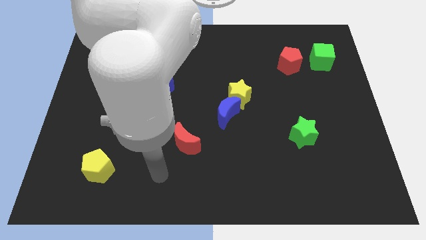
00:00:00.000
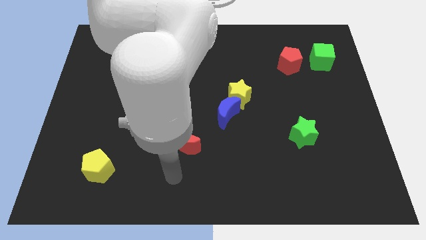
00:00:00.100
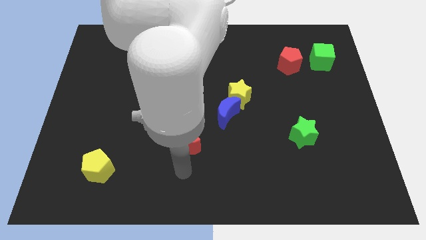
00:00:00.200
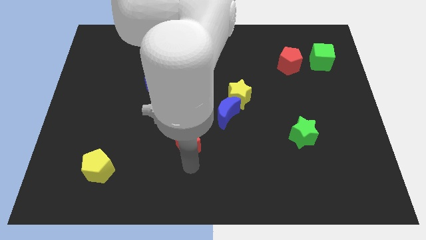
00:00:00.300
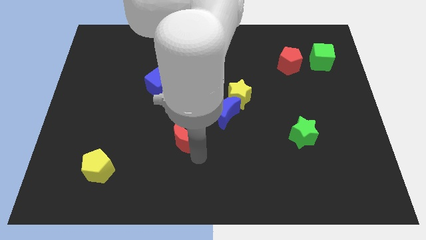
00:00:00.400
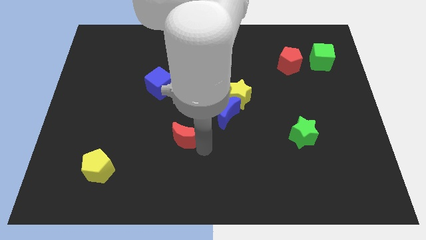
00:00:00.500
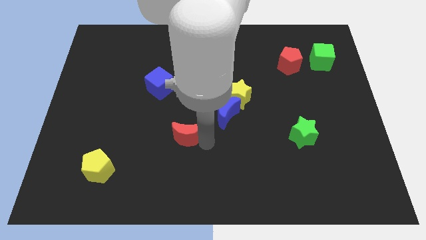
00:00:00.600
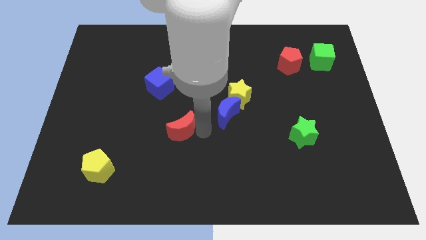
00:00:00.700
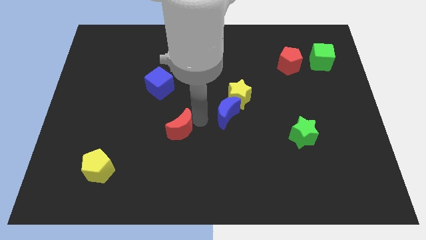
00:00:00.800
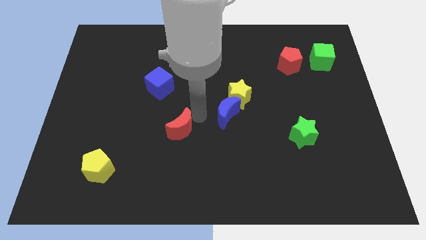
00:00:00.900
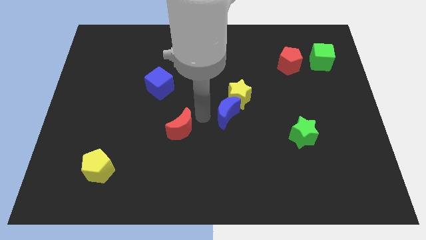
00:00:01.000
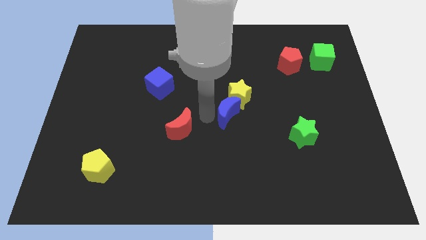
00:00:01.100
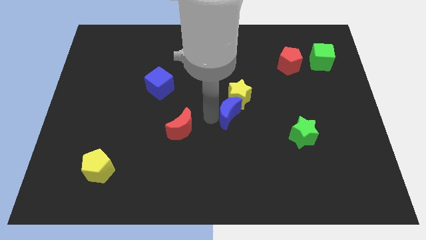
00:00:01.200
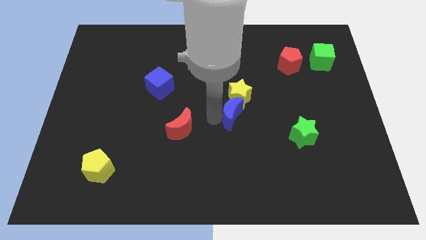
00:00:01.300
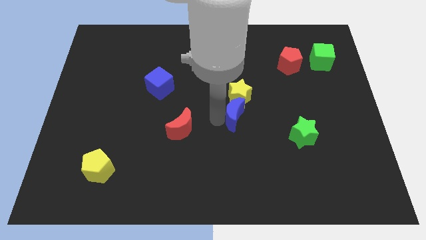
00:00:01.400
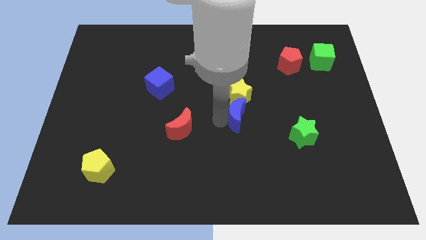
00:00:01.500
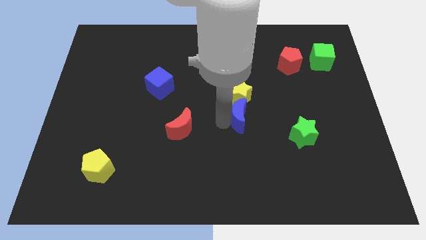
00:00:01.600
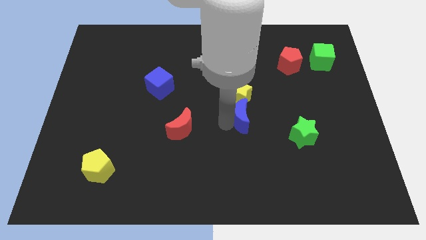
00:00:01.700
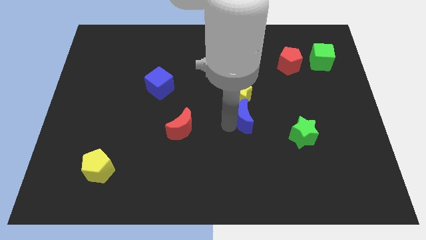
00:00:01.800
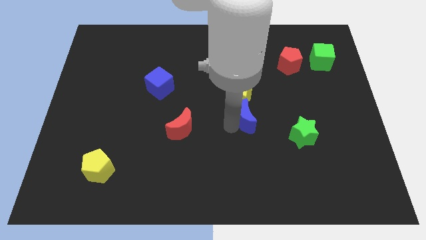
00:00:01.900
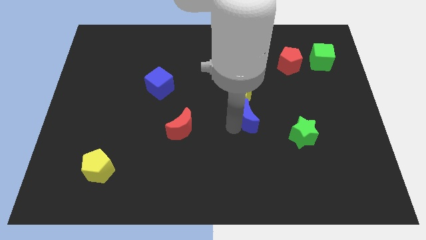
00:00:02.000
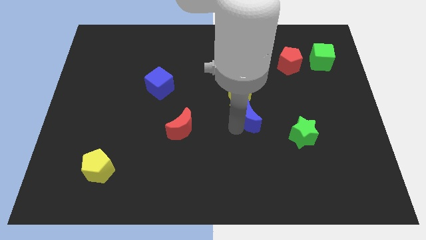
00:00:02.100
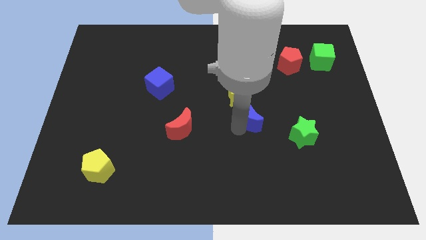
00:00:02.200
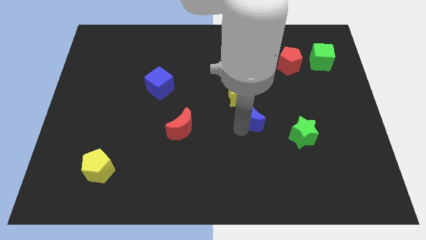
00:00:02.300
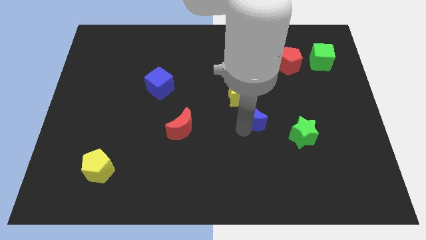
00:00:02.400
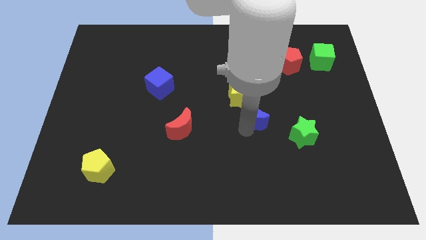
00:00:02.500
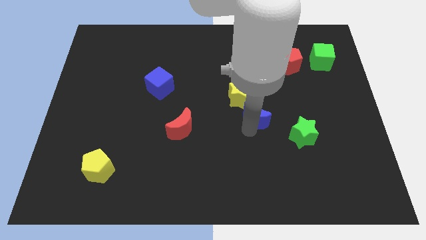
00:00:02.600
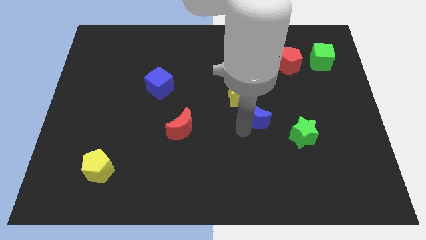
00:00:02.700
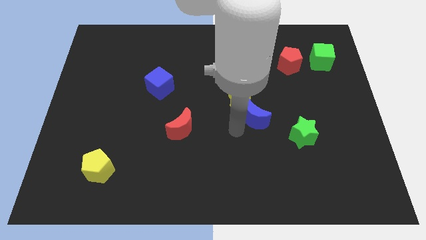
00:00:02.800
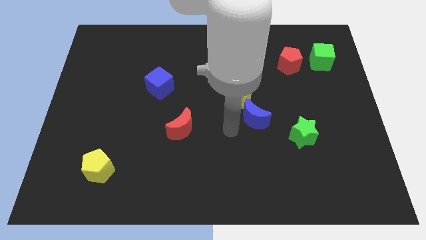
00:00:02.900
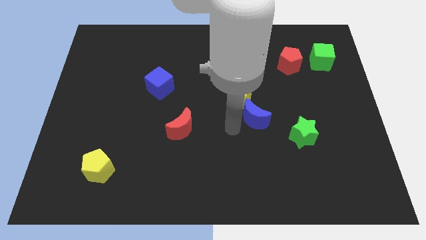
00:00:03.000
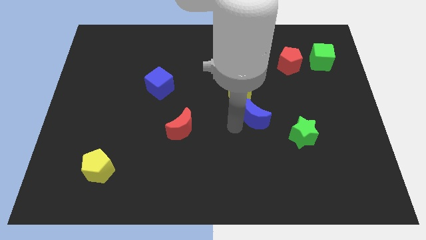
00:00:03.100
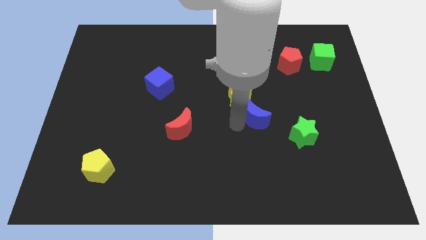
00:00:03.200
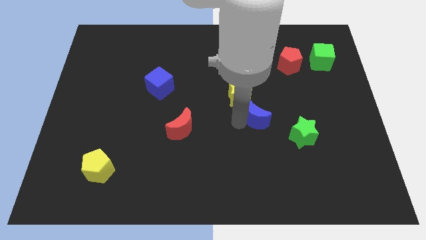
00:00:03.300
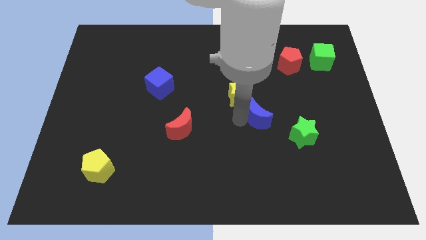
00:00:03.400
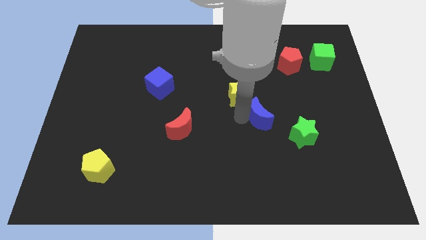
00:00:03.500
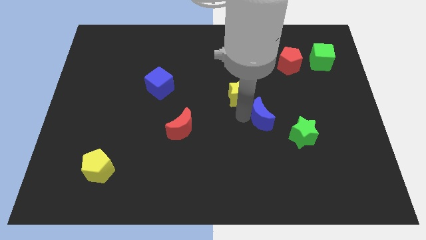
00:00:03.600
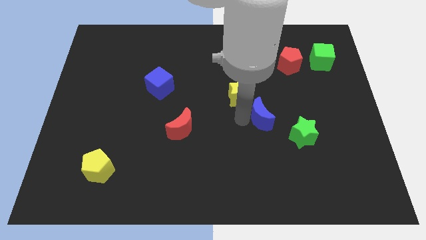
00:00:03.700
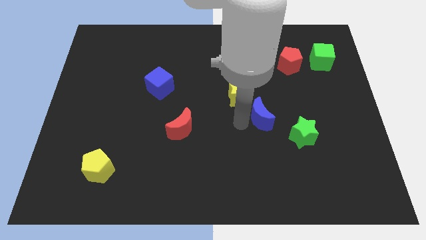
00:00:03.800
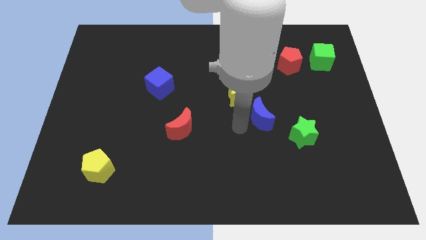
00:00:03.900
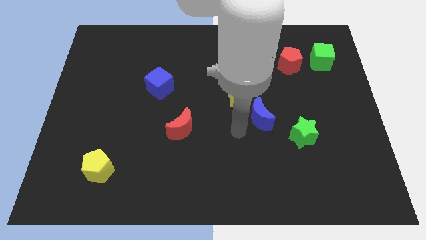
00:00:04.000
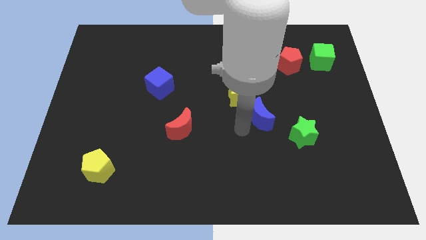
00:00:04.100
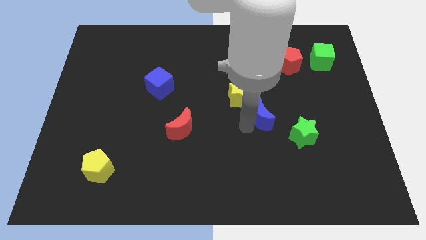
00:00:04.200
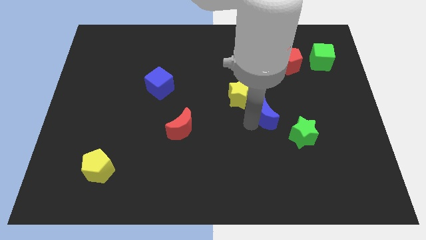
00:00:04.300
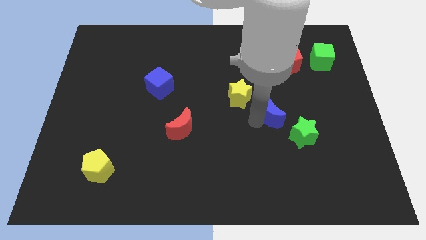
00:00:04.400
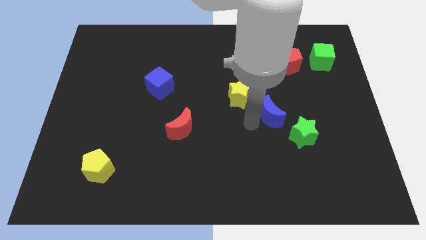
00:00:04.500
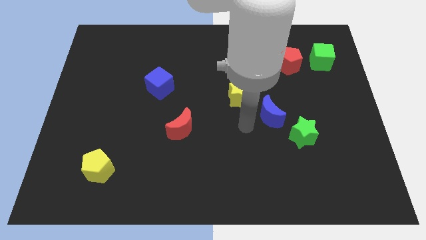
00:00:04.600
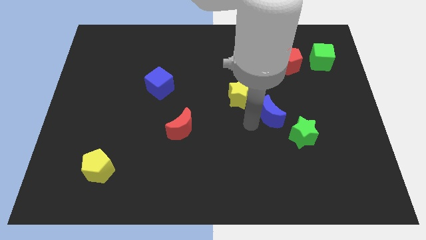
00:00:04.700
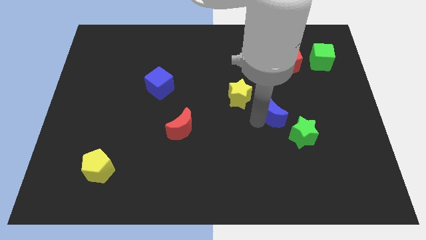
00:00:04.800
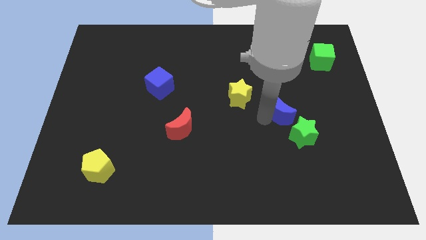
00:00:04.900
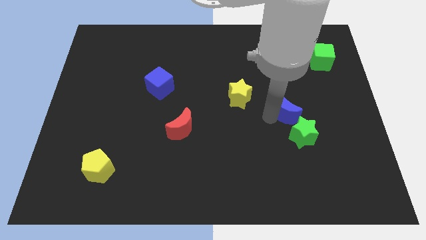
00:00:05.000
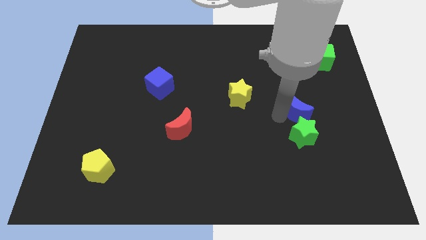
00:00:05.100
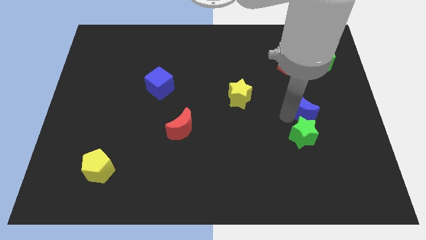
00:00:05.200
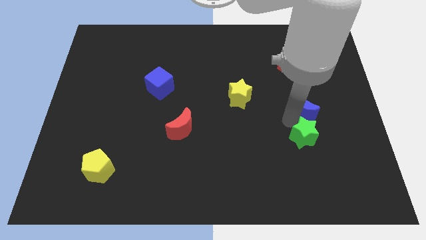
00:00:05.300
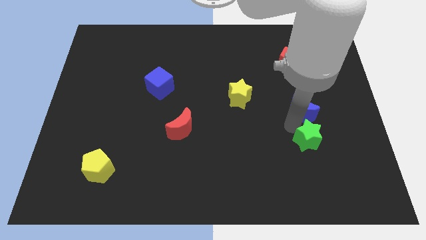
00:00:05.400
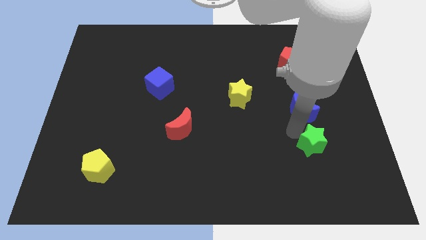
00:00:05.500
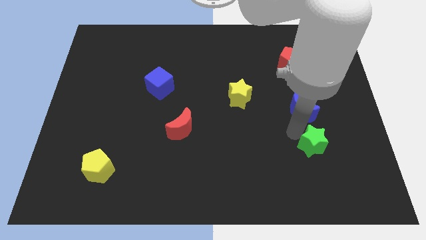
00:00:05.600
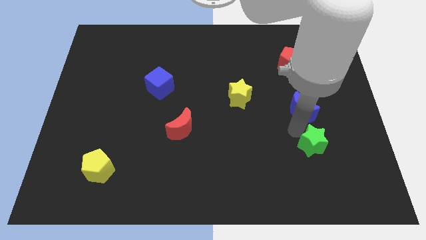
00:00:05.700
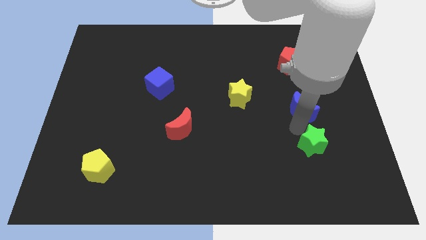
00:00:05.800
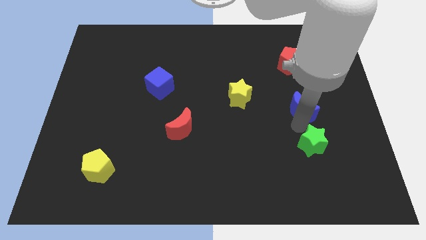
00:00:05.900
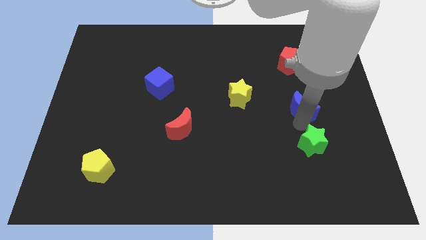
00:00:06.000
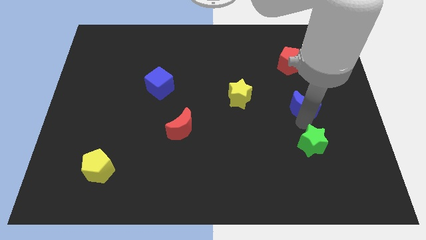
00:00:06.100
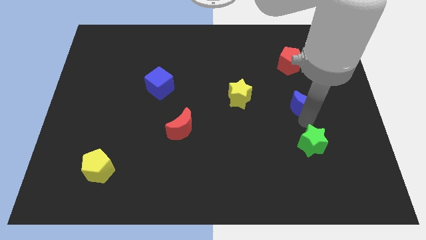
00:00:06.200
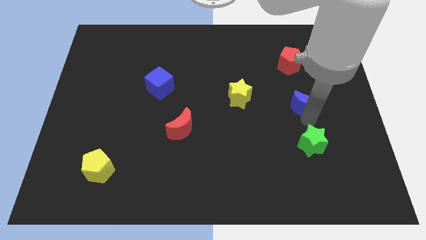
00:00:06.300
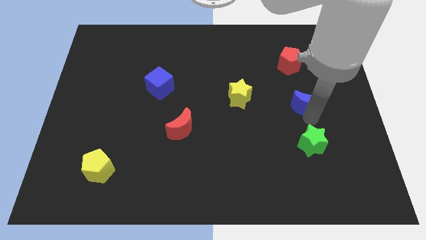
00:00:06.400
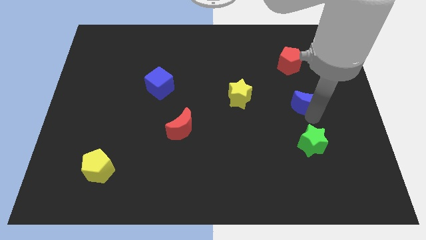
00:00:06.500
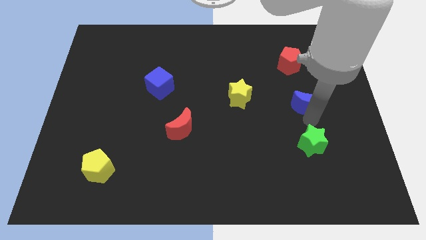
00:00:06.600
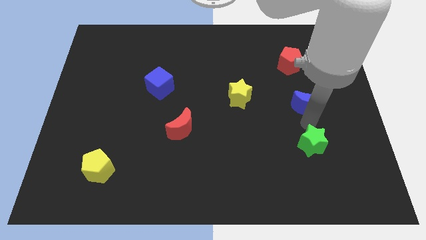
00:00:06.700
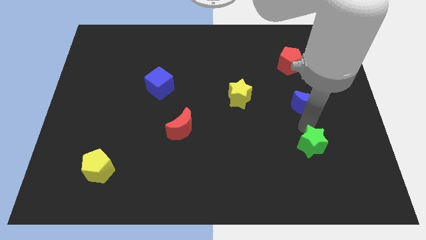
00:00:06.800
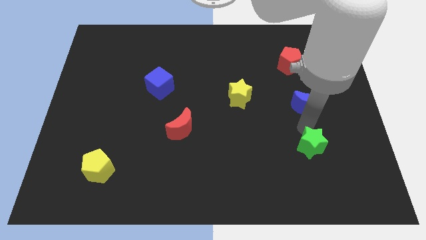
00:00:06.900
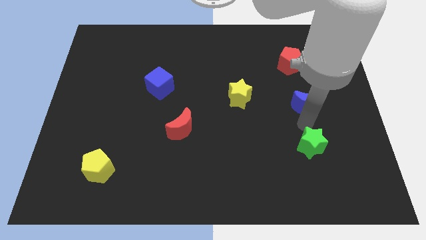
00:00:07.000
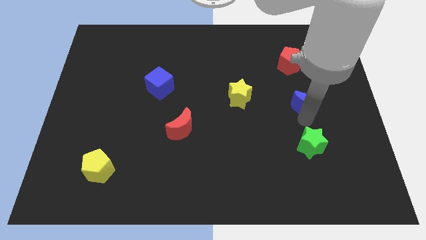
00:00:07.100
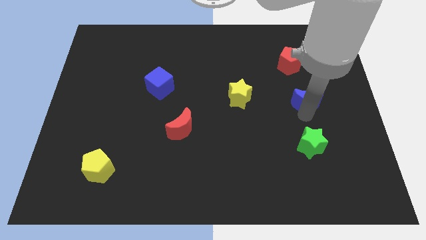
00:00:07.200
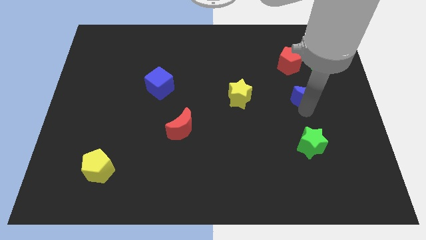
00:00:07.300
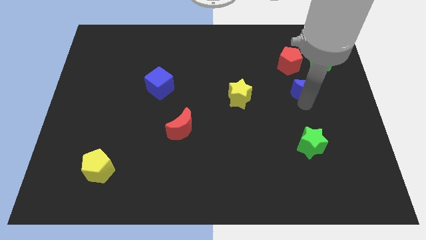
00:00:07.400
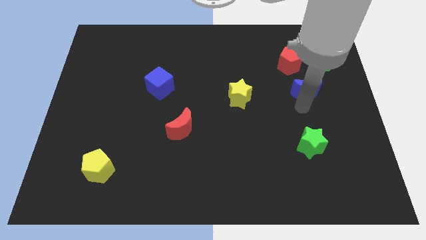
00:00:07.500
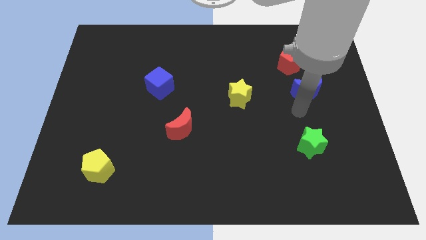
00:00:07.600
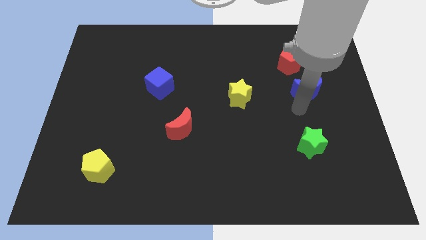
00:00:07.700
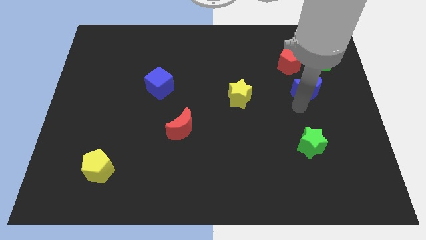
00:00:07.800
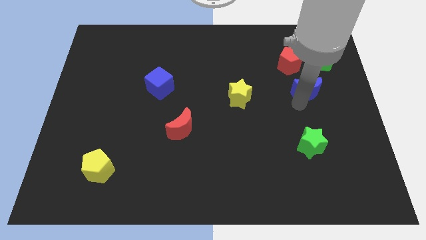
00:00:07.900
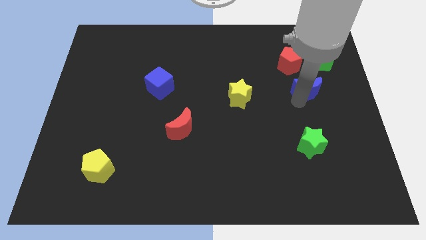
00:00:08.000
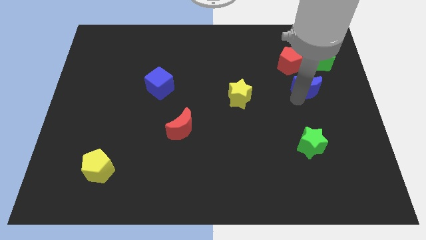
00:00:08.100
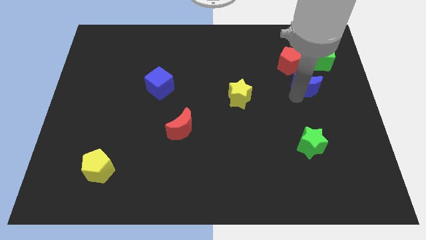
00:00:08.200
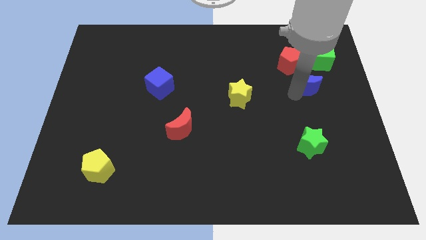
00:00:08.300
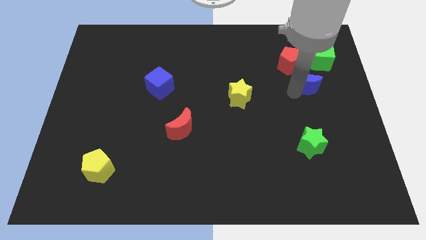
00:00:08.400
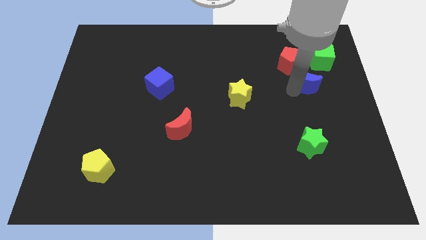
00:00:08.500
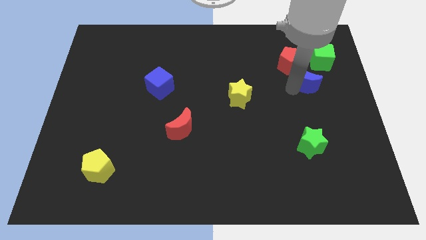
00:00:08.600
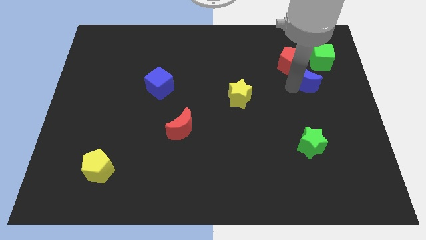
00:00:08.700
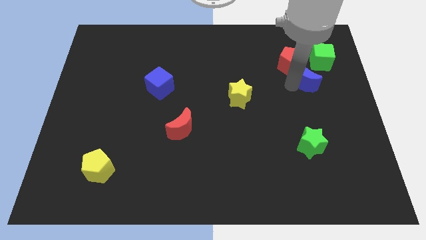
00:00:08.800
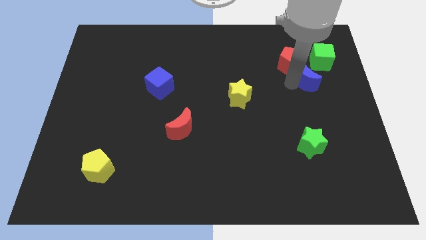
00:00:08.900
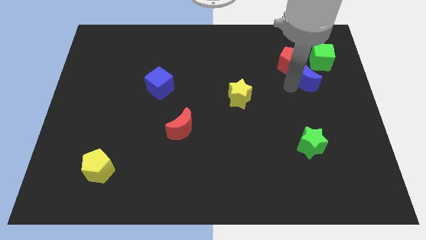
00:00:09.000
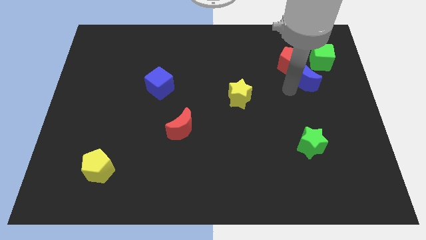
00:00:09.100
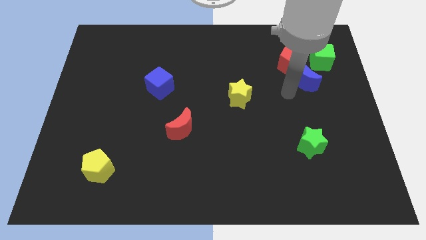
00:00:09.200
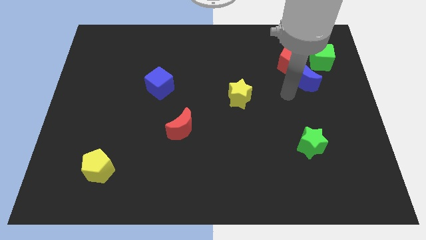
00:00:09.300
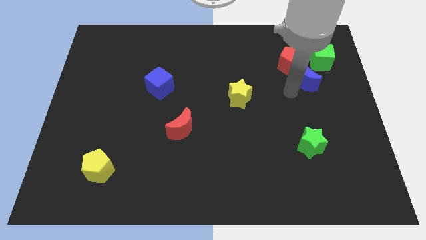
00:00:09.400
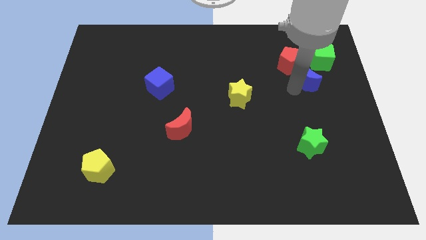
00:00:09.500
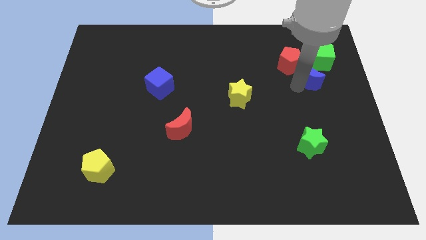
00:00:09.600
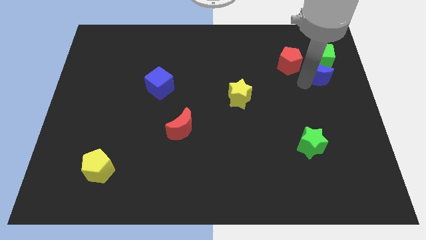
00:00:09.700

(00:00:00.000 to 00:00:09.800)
put the blue moon next to the green cube
